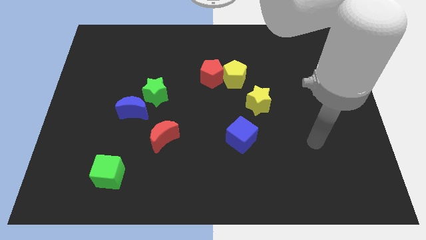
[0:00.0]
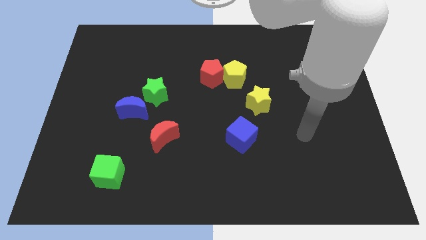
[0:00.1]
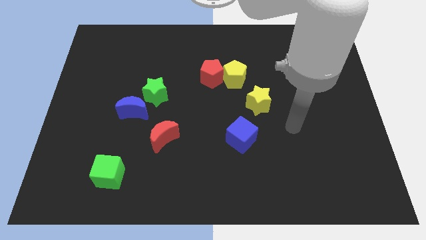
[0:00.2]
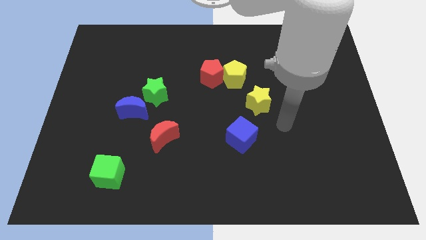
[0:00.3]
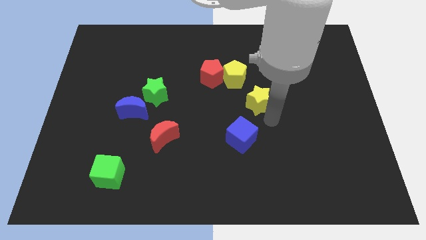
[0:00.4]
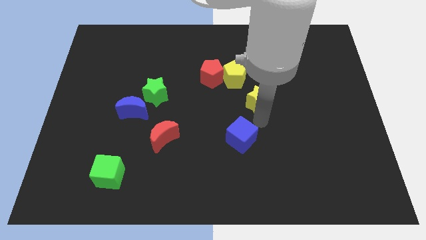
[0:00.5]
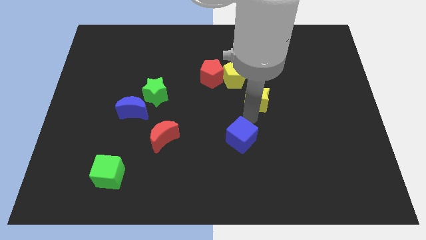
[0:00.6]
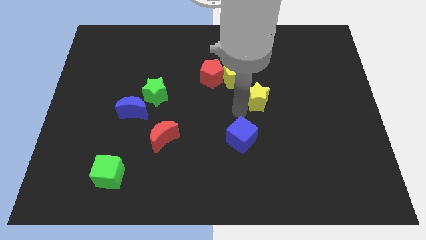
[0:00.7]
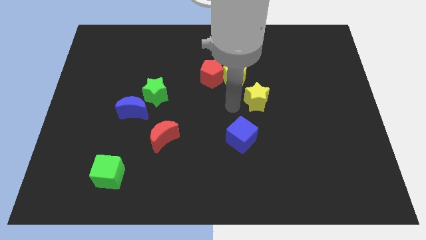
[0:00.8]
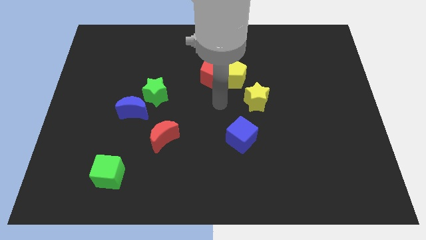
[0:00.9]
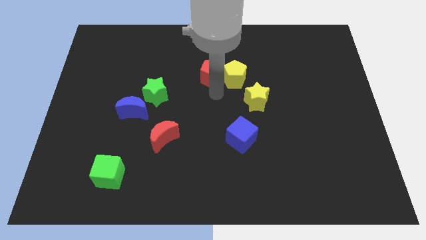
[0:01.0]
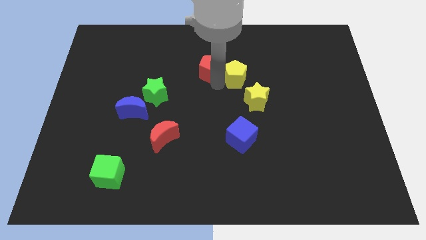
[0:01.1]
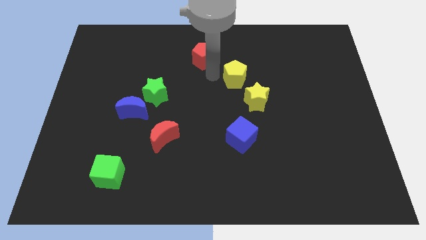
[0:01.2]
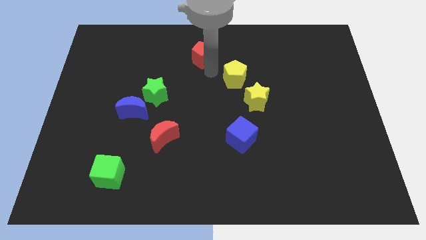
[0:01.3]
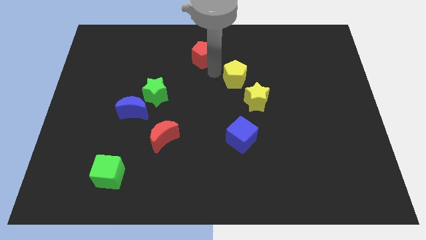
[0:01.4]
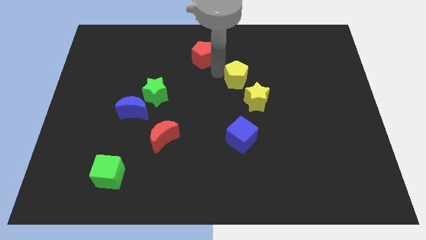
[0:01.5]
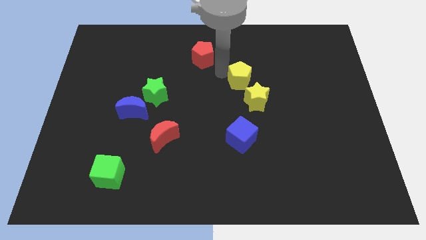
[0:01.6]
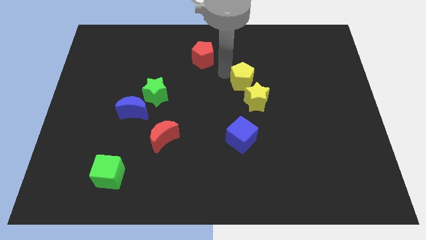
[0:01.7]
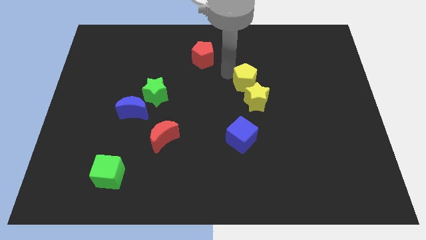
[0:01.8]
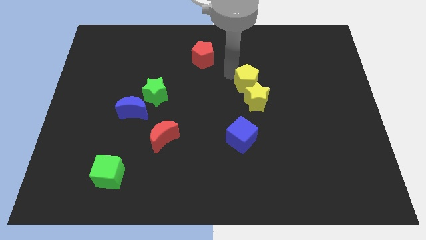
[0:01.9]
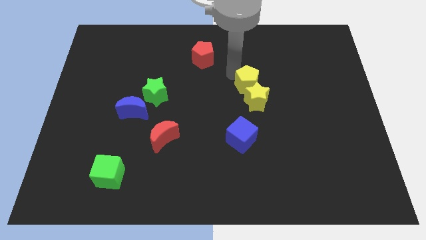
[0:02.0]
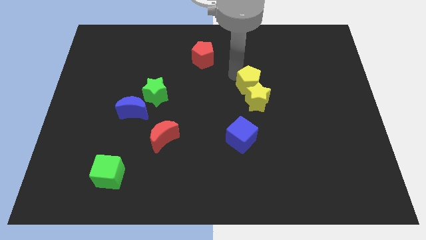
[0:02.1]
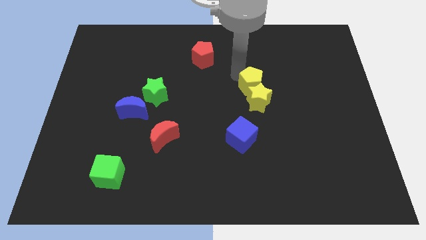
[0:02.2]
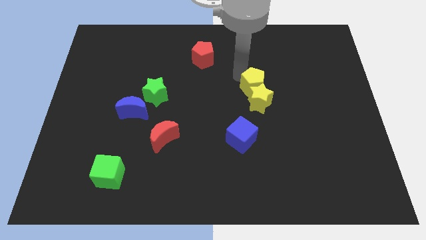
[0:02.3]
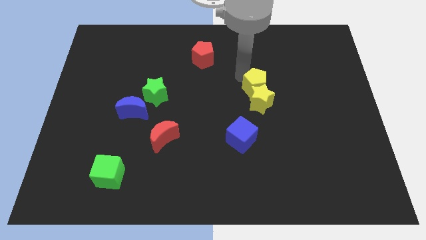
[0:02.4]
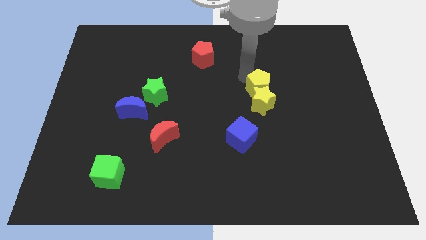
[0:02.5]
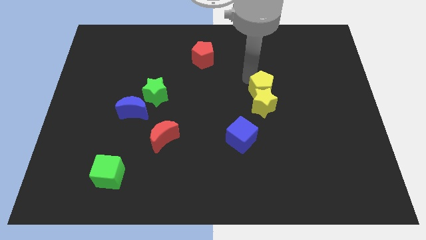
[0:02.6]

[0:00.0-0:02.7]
slide the yellow pentagon a bit downwards and then to the right

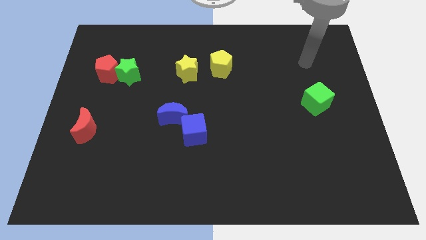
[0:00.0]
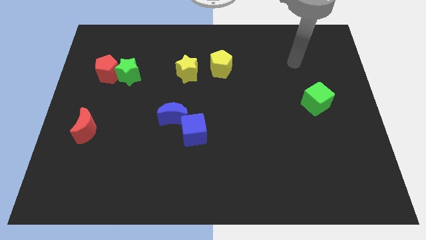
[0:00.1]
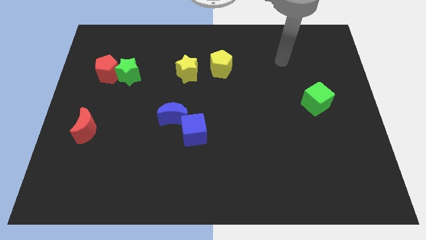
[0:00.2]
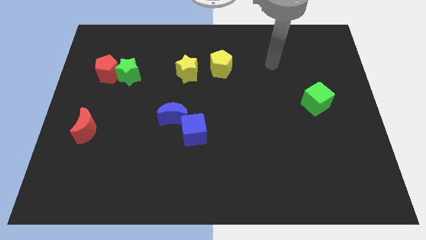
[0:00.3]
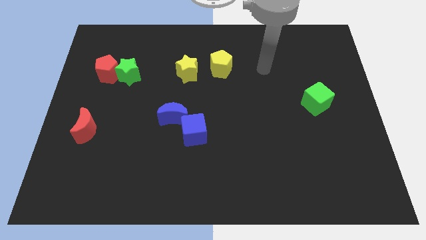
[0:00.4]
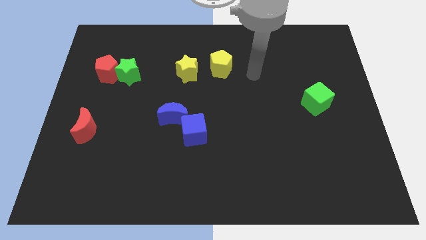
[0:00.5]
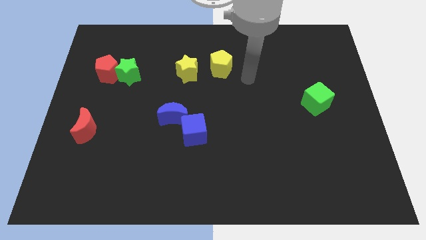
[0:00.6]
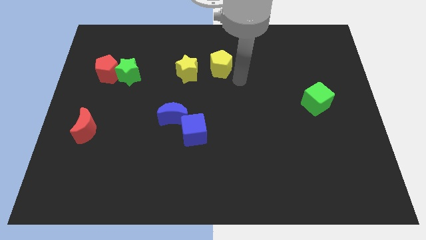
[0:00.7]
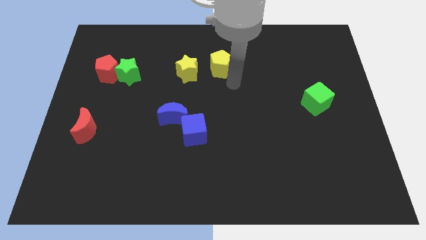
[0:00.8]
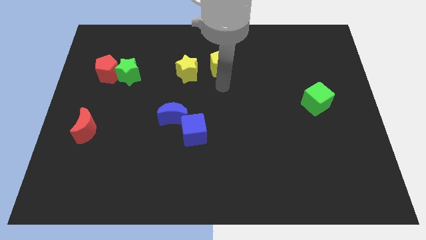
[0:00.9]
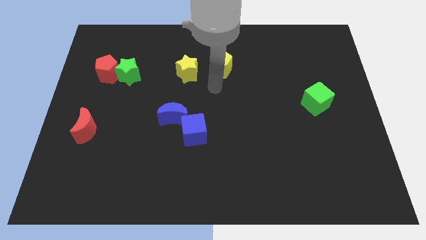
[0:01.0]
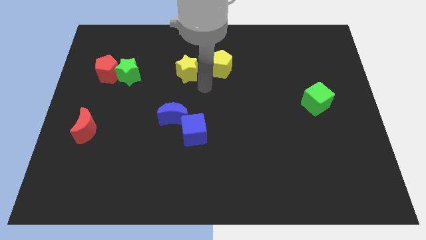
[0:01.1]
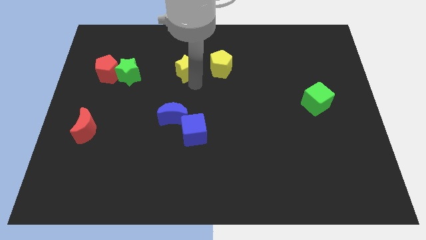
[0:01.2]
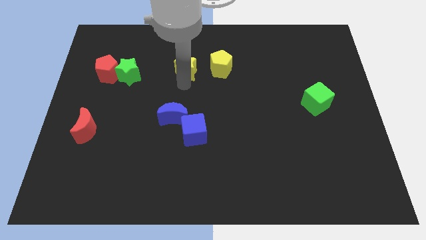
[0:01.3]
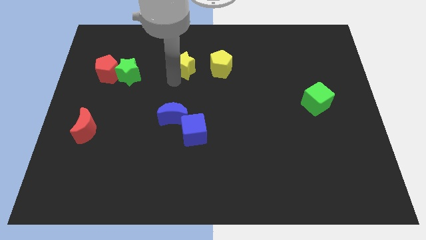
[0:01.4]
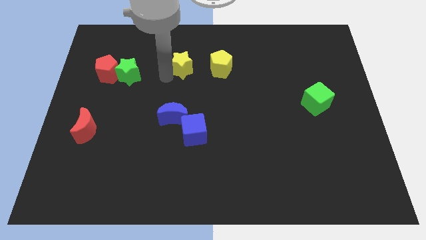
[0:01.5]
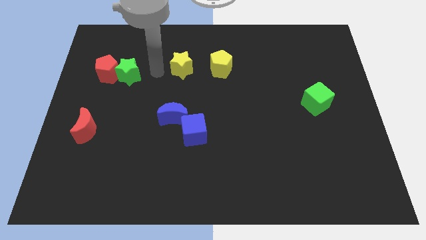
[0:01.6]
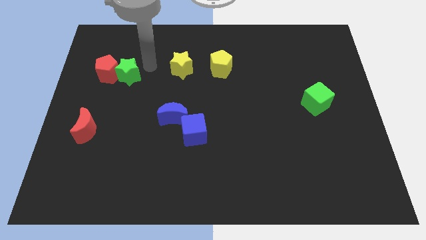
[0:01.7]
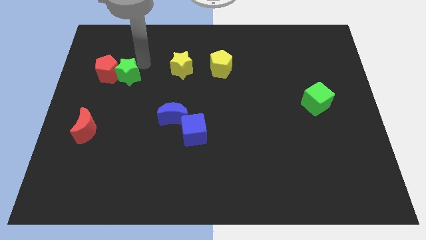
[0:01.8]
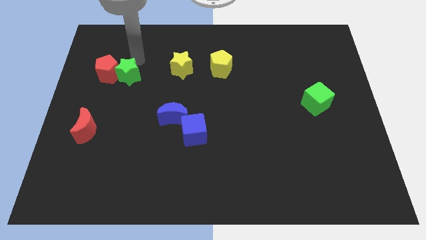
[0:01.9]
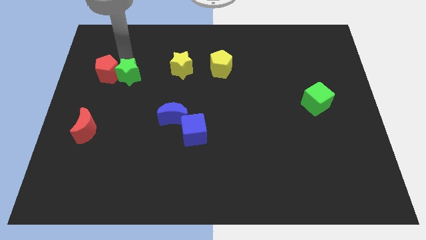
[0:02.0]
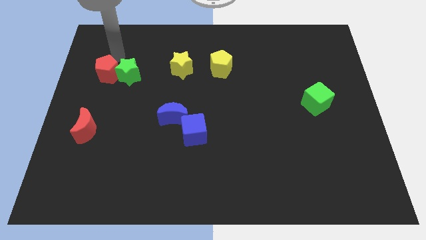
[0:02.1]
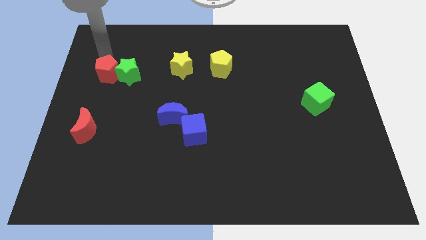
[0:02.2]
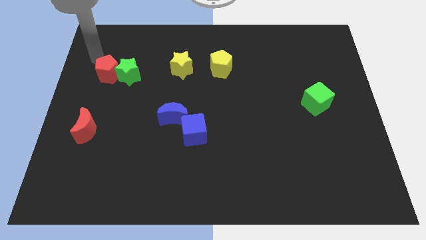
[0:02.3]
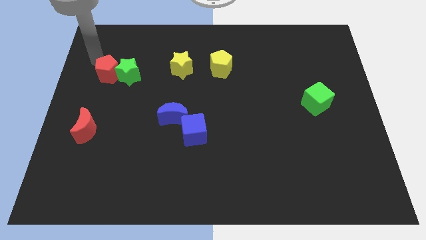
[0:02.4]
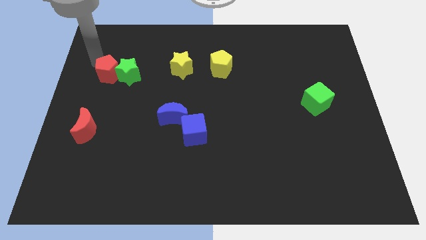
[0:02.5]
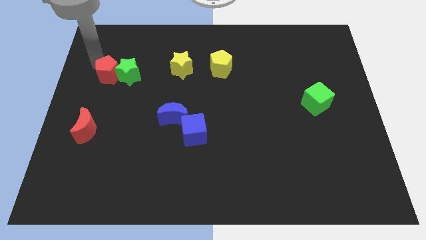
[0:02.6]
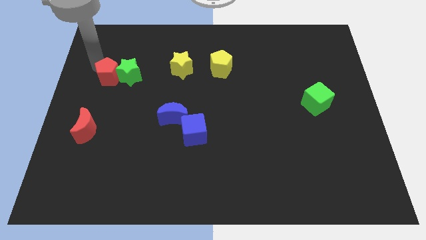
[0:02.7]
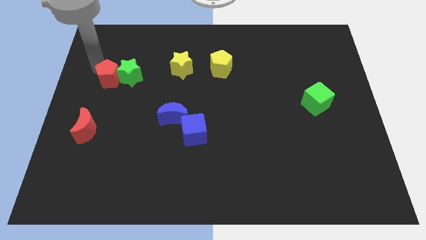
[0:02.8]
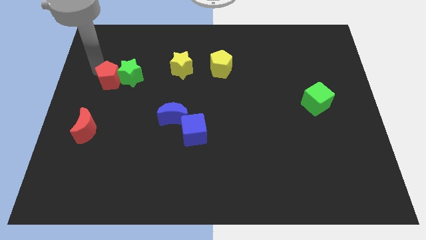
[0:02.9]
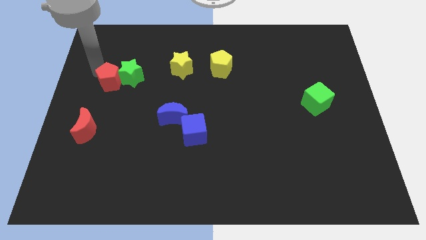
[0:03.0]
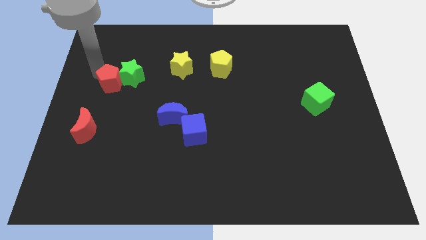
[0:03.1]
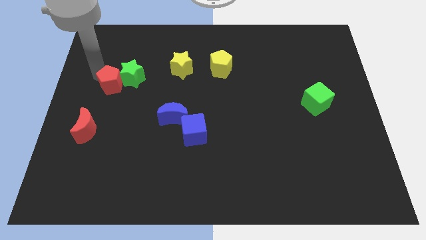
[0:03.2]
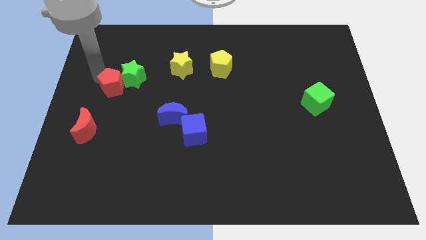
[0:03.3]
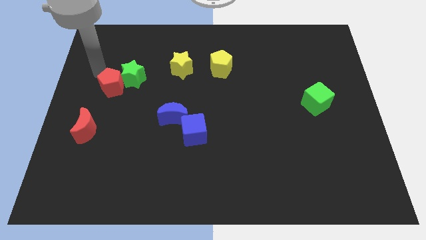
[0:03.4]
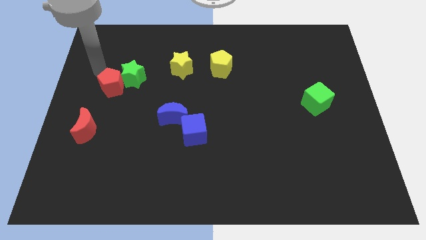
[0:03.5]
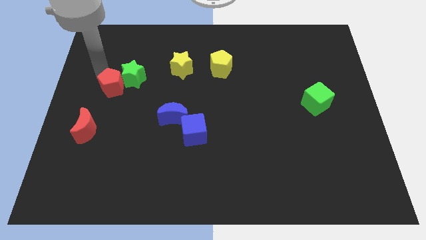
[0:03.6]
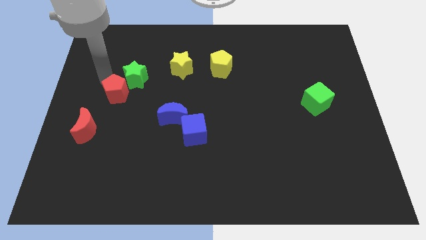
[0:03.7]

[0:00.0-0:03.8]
push the red pentagon diagonally downwards and right a bit

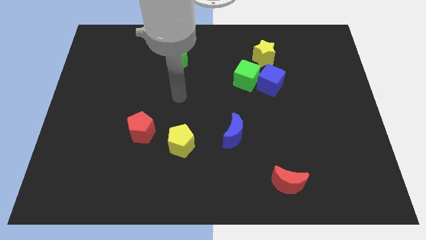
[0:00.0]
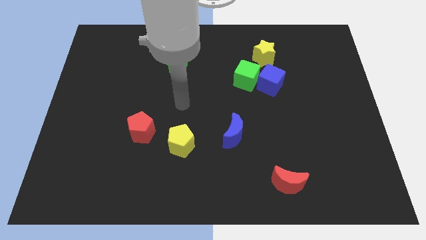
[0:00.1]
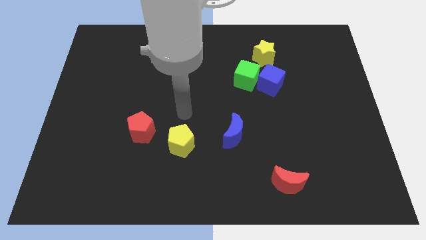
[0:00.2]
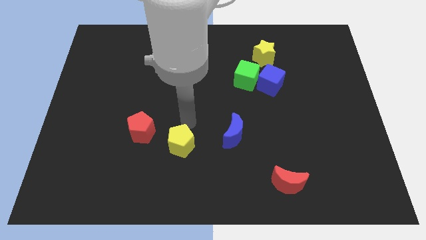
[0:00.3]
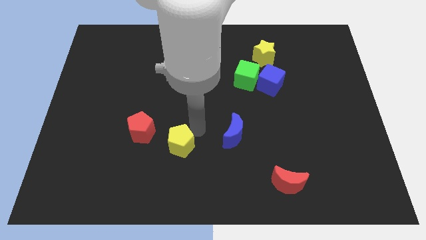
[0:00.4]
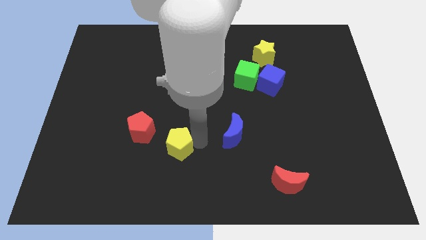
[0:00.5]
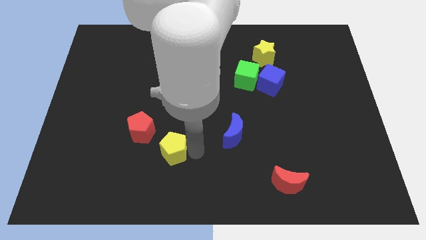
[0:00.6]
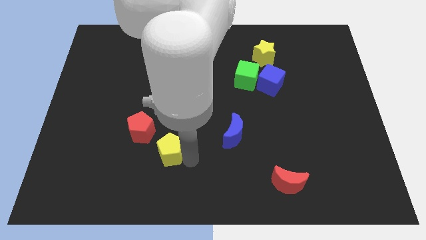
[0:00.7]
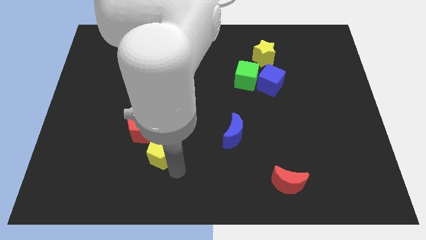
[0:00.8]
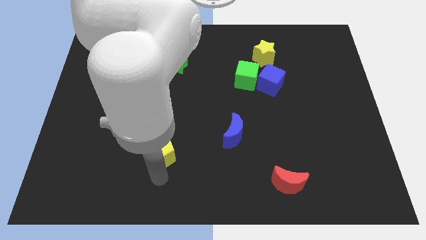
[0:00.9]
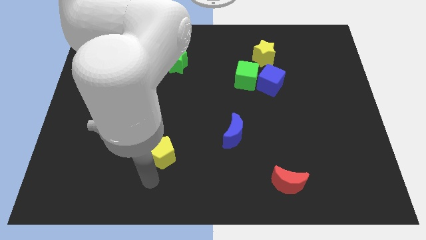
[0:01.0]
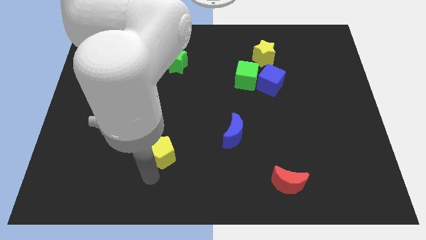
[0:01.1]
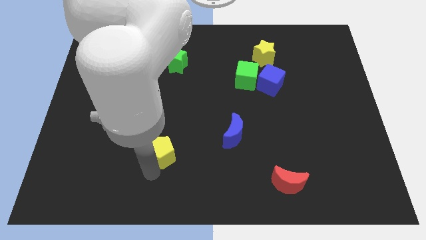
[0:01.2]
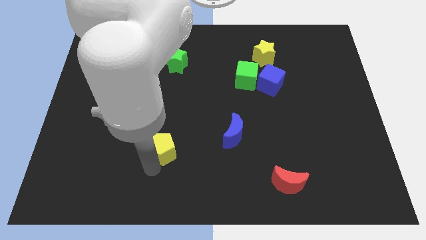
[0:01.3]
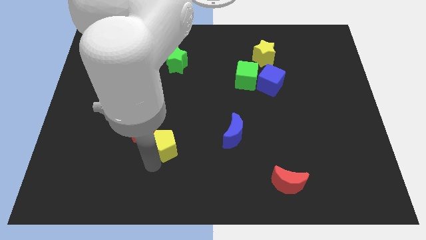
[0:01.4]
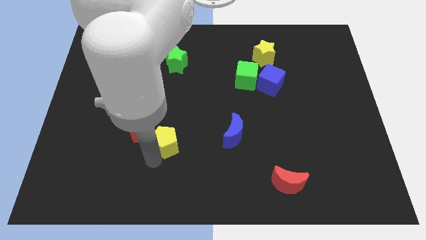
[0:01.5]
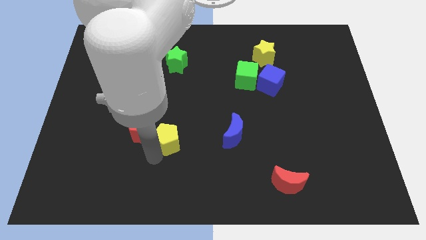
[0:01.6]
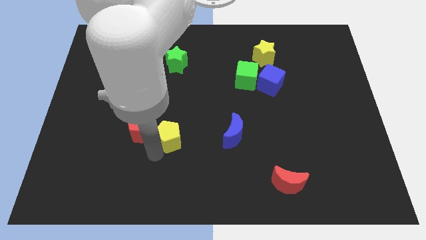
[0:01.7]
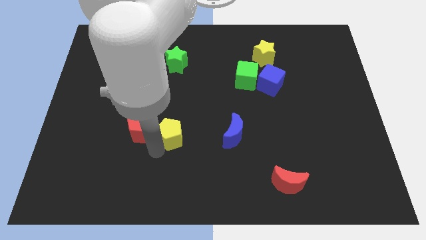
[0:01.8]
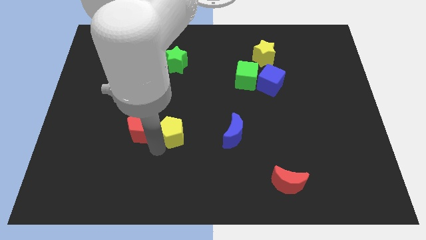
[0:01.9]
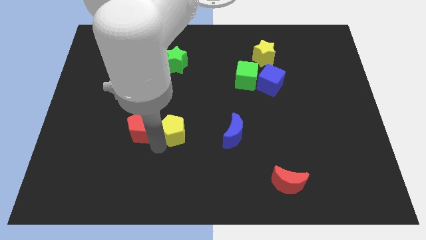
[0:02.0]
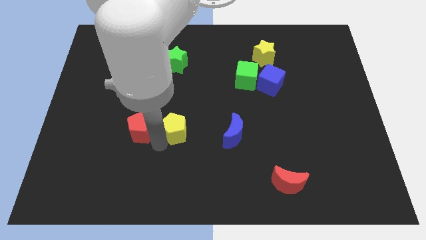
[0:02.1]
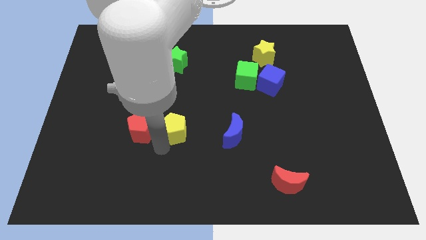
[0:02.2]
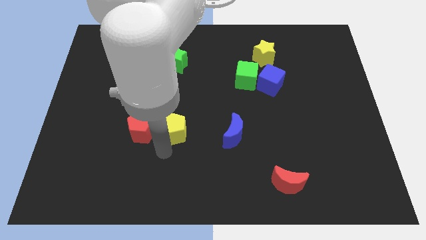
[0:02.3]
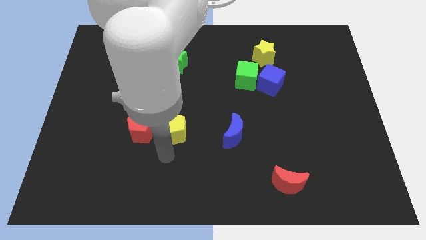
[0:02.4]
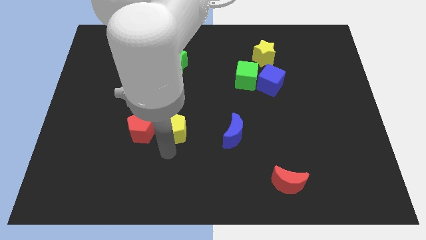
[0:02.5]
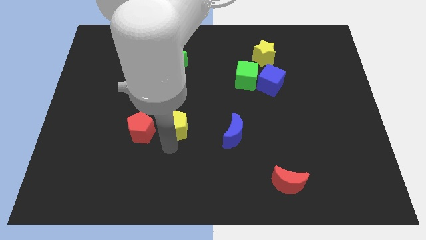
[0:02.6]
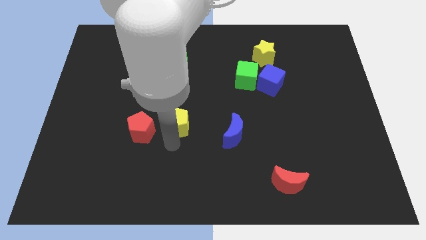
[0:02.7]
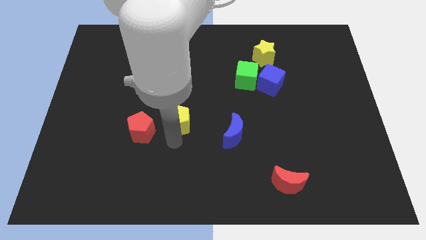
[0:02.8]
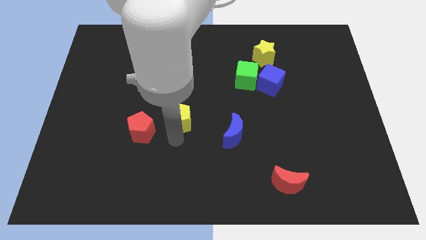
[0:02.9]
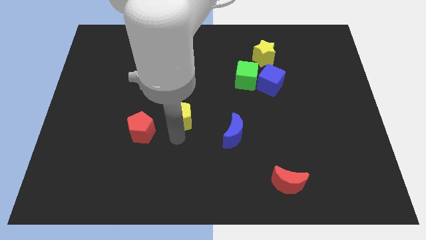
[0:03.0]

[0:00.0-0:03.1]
move the yellow pentagon up somewhat
